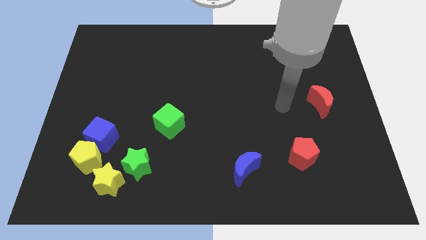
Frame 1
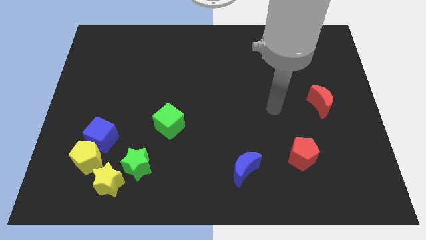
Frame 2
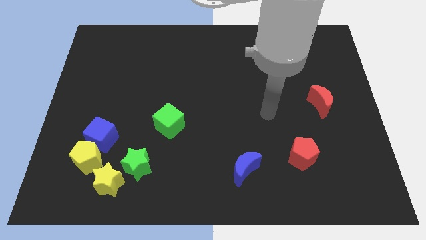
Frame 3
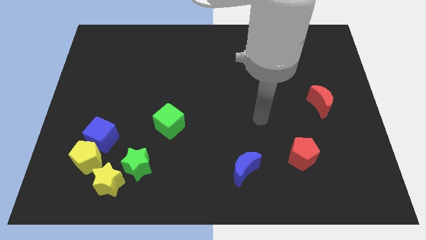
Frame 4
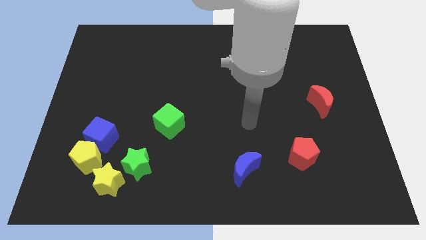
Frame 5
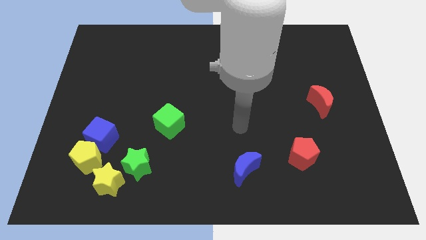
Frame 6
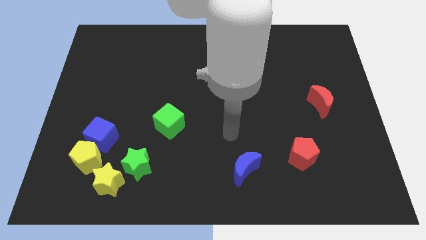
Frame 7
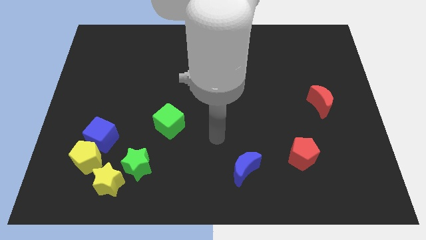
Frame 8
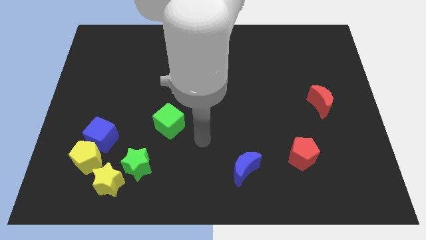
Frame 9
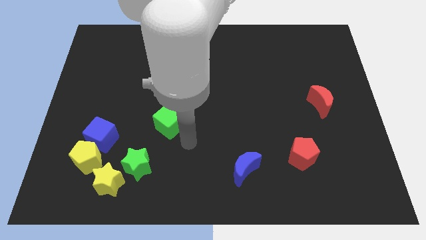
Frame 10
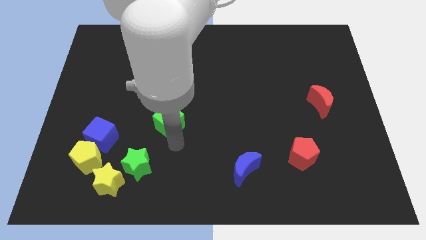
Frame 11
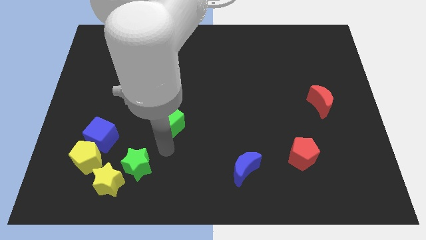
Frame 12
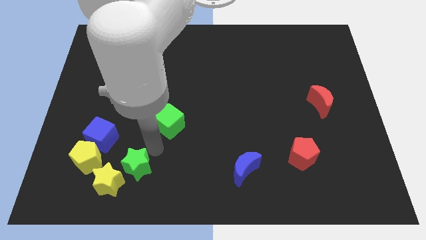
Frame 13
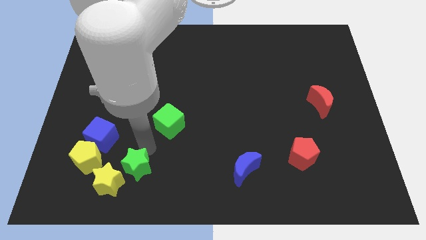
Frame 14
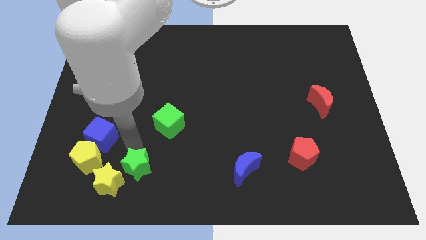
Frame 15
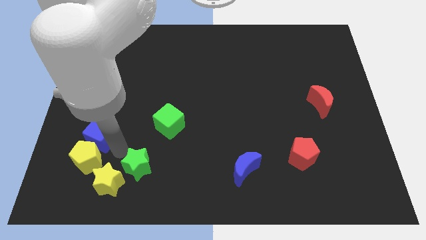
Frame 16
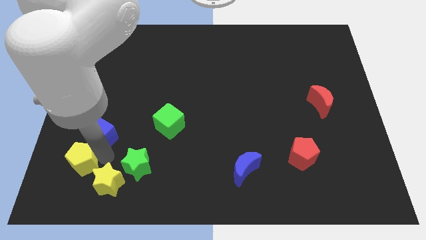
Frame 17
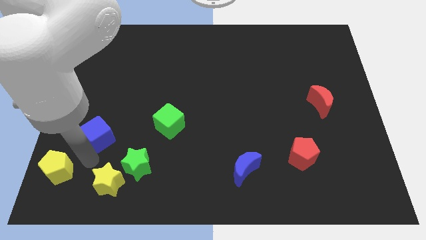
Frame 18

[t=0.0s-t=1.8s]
pull the blue cube apart from the yellow pentagon

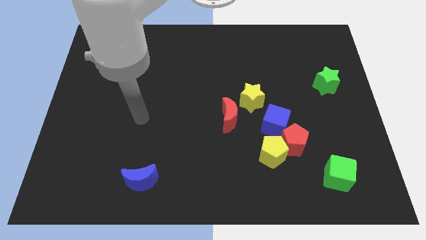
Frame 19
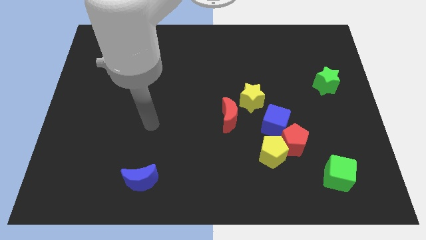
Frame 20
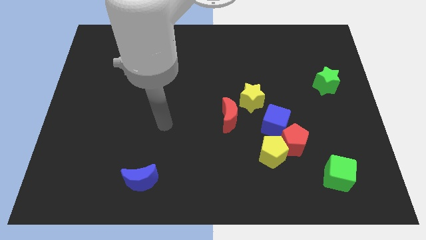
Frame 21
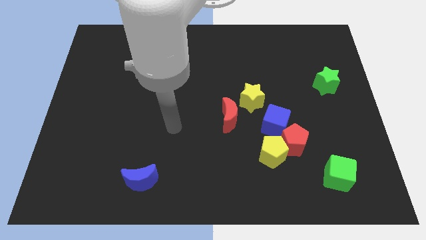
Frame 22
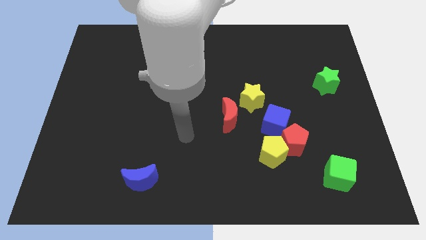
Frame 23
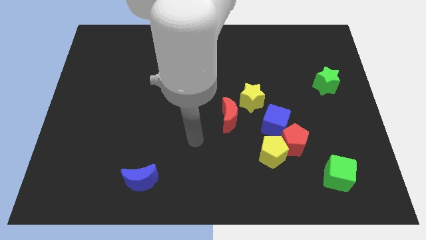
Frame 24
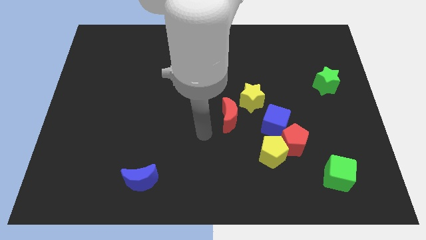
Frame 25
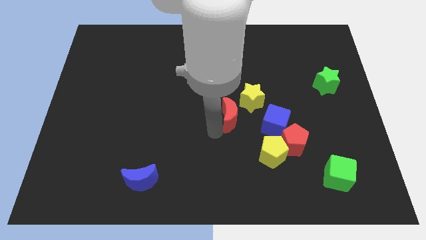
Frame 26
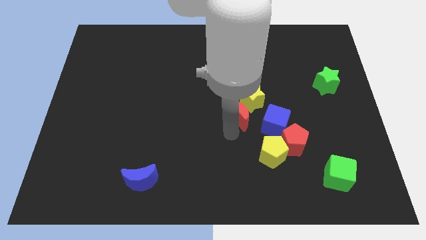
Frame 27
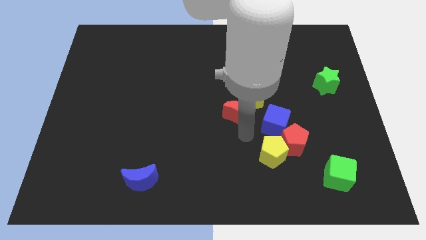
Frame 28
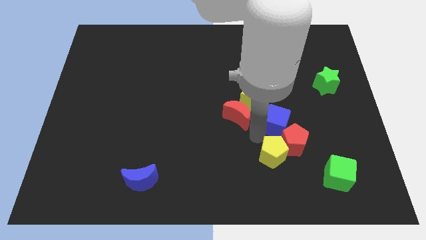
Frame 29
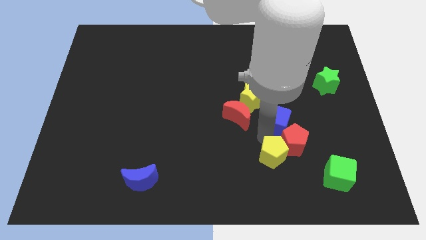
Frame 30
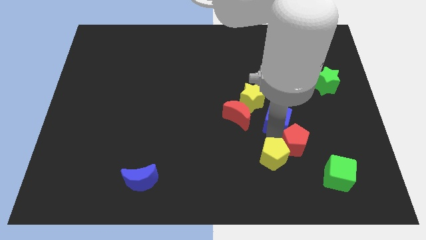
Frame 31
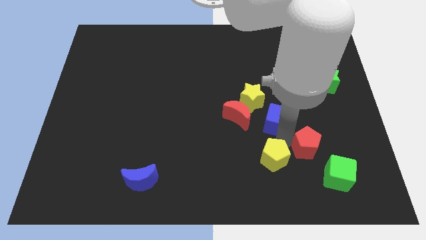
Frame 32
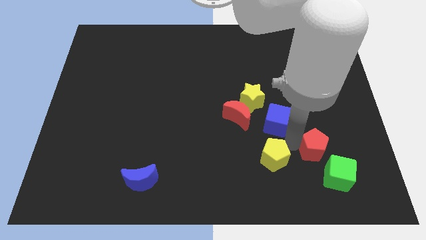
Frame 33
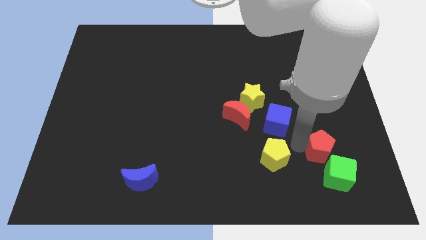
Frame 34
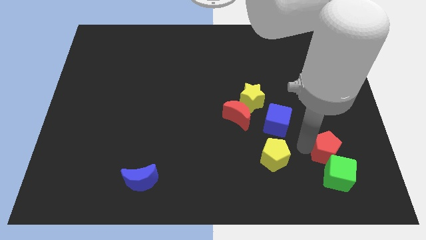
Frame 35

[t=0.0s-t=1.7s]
pull the red pentagon apart from the yellow pentagon and blue cube

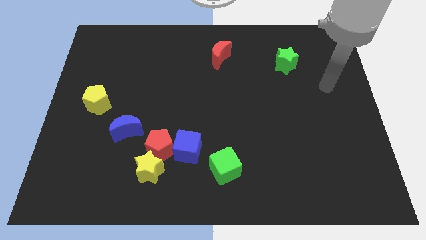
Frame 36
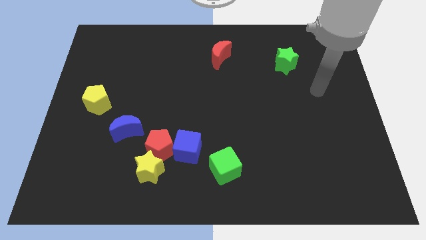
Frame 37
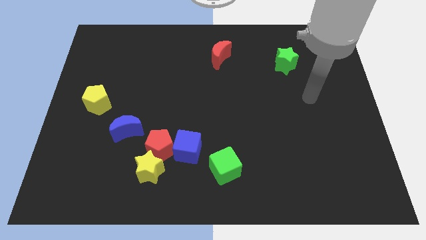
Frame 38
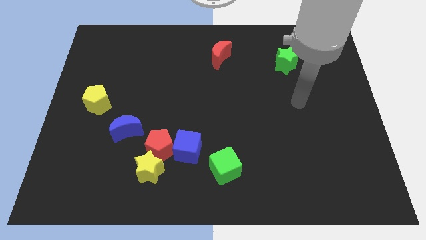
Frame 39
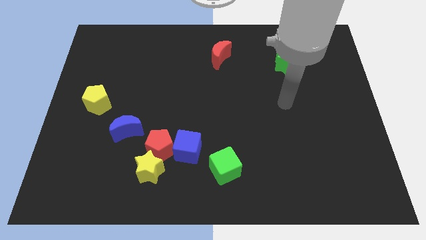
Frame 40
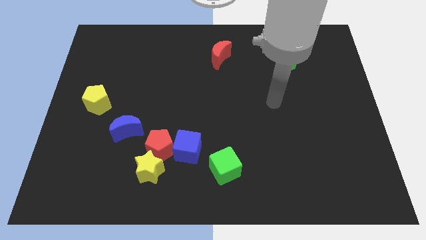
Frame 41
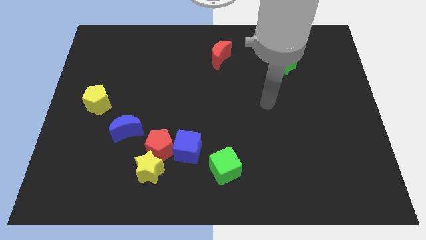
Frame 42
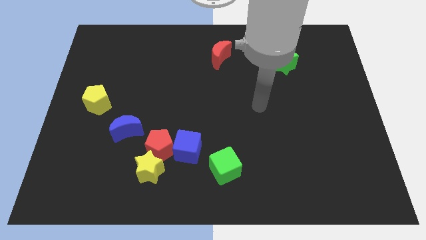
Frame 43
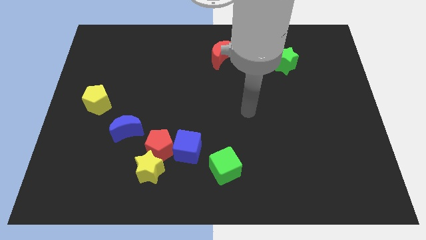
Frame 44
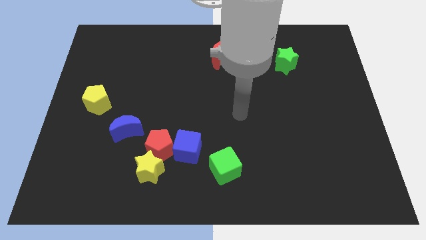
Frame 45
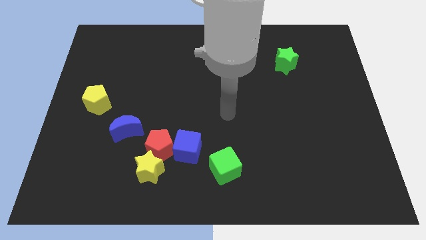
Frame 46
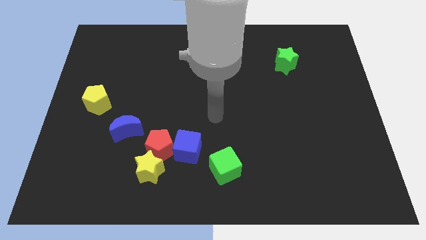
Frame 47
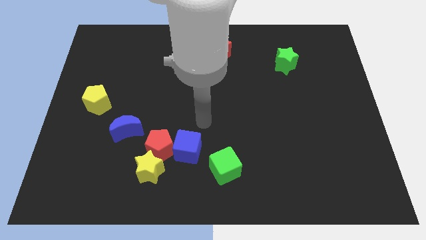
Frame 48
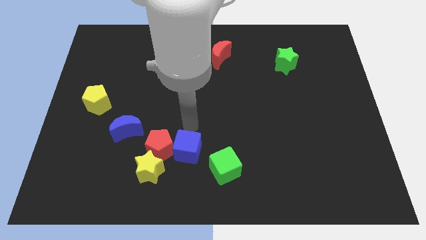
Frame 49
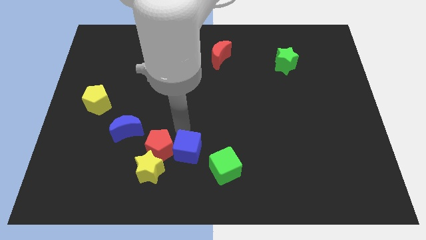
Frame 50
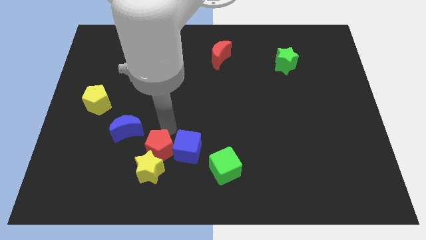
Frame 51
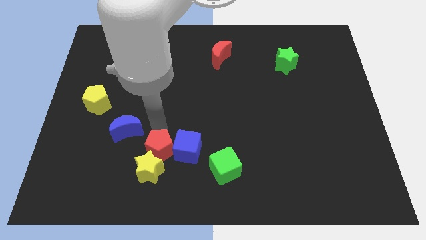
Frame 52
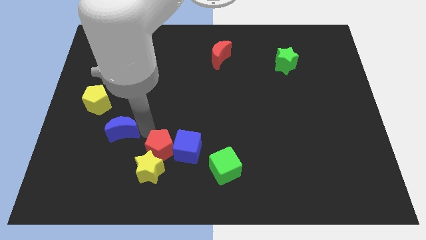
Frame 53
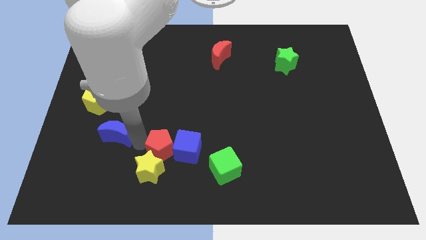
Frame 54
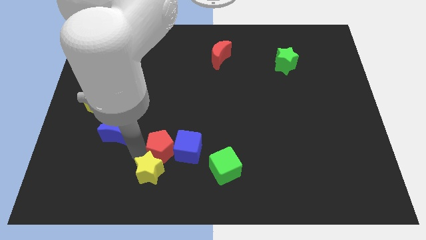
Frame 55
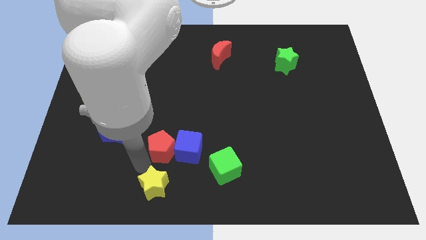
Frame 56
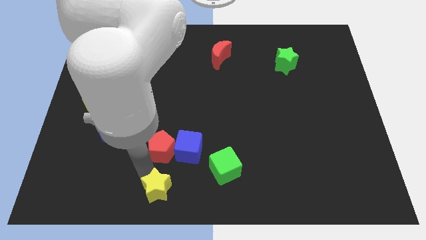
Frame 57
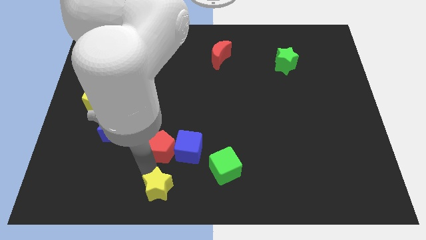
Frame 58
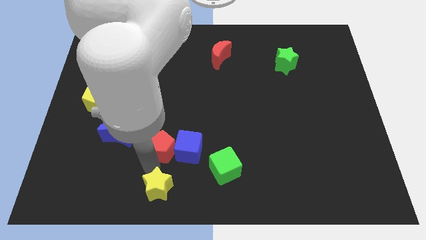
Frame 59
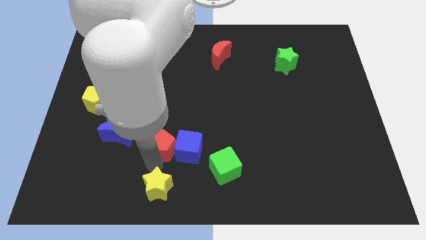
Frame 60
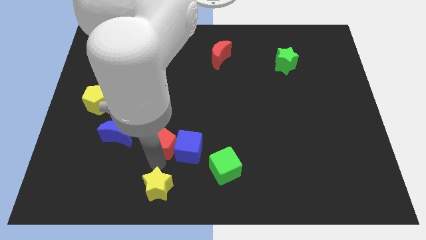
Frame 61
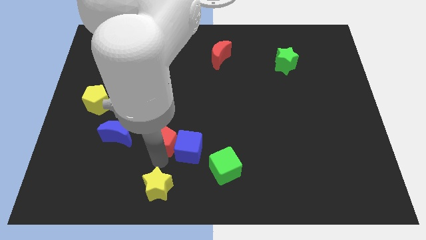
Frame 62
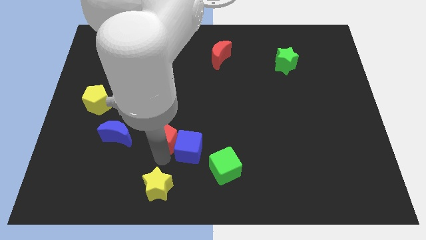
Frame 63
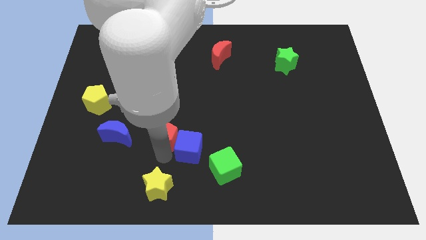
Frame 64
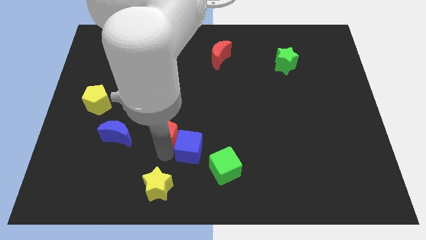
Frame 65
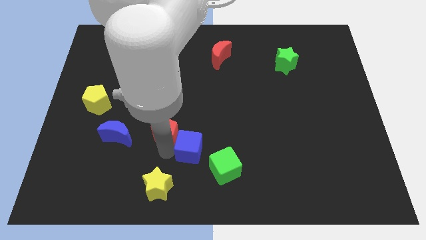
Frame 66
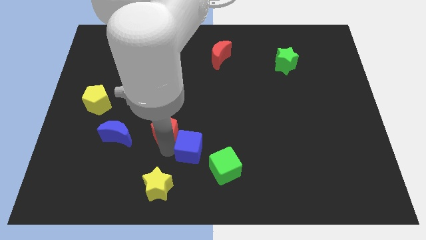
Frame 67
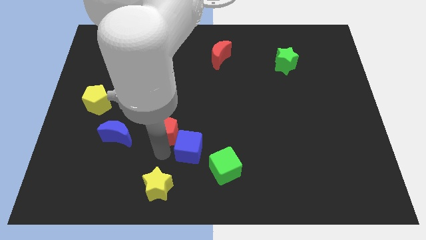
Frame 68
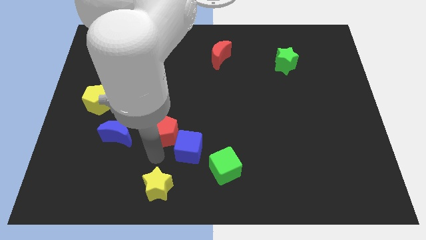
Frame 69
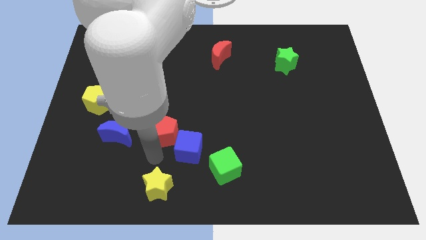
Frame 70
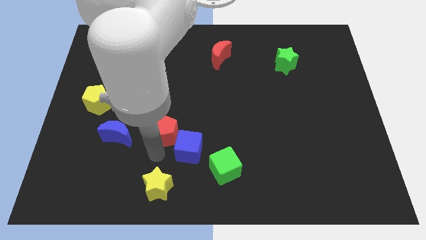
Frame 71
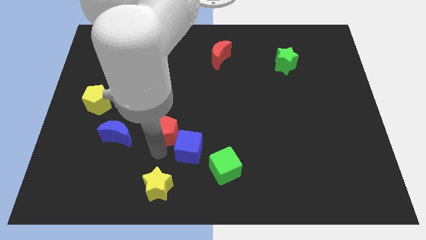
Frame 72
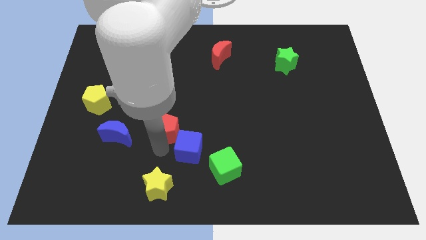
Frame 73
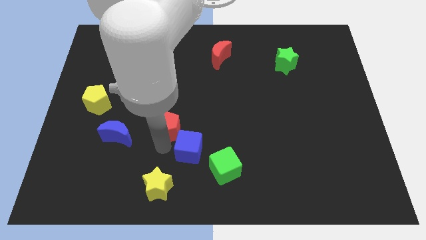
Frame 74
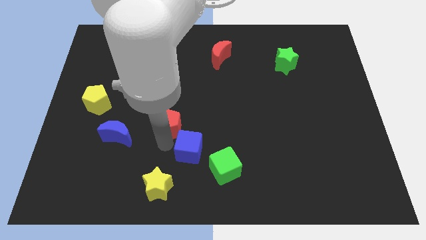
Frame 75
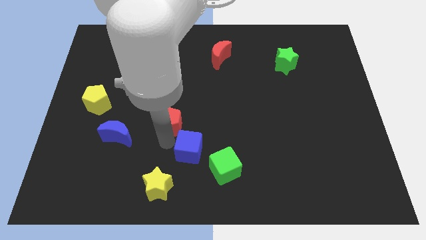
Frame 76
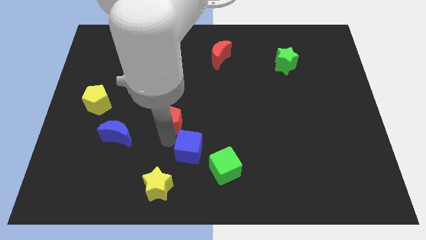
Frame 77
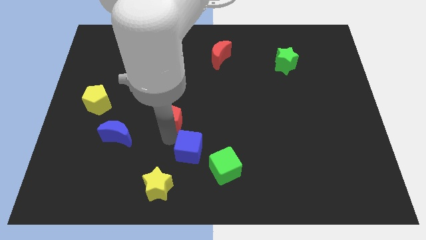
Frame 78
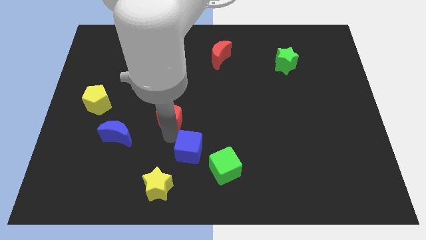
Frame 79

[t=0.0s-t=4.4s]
pull the red pentagon apart from the group of blocks

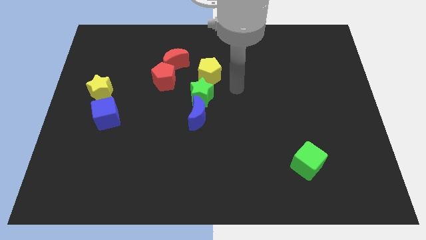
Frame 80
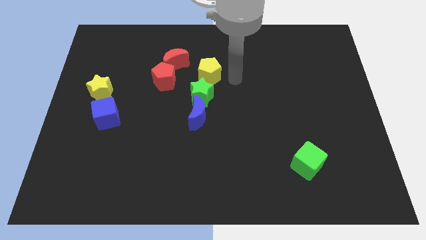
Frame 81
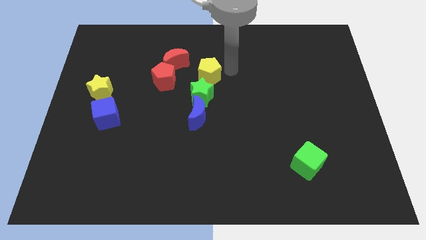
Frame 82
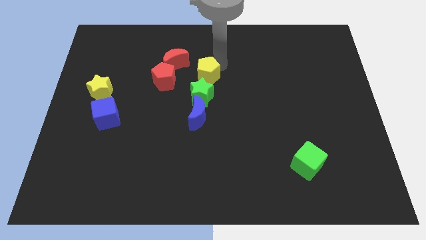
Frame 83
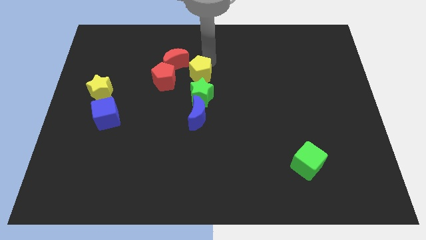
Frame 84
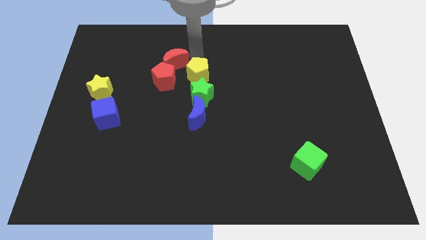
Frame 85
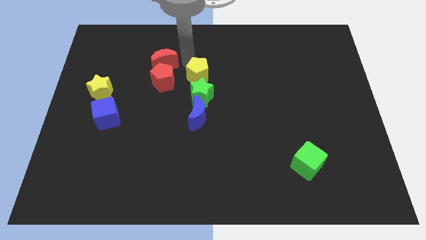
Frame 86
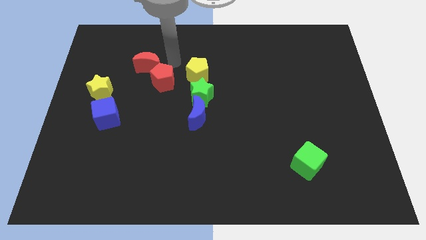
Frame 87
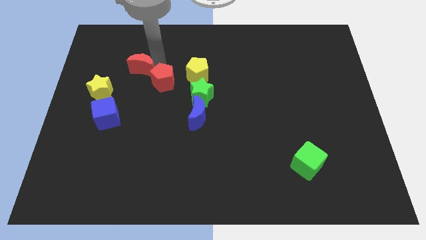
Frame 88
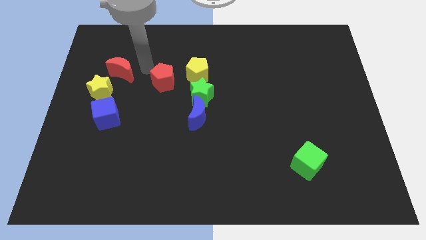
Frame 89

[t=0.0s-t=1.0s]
pull the red pentagon apart from the red moon

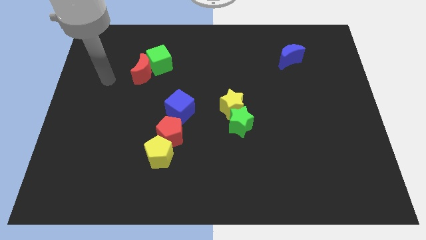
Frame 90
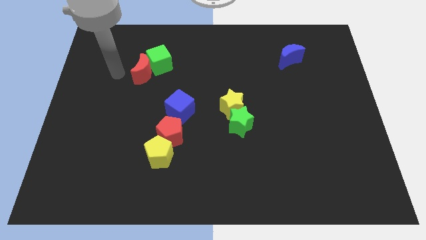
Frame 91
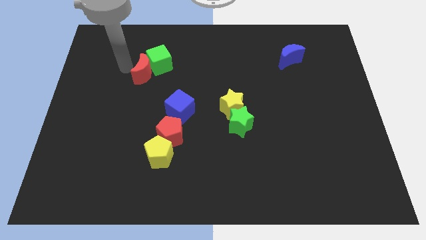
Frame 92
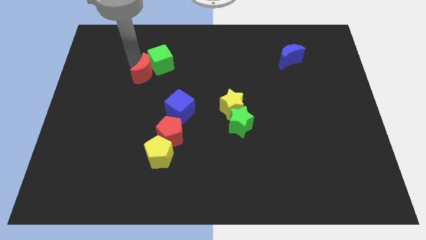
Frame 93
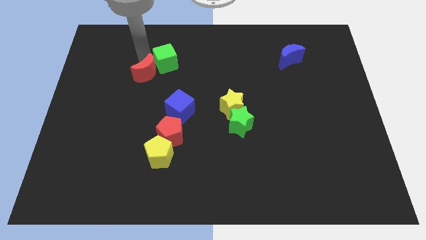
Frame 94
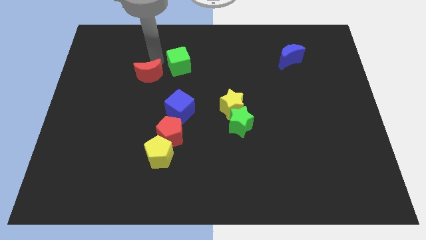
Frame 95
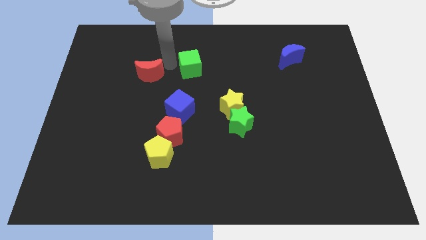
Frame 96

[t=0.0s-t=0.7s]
pull the red moon apart from the green cube
